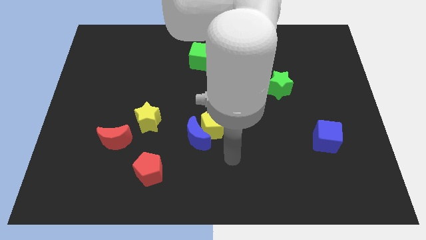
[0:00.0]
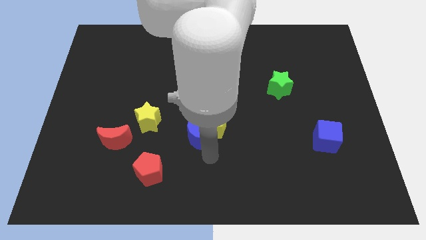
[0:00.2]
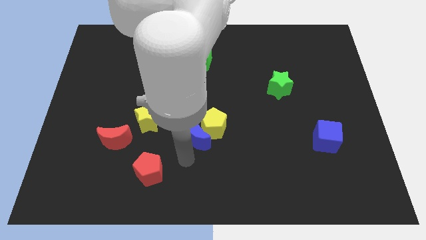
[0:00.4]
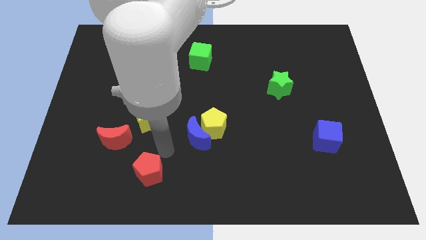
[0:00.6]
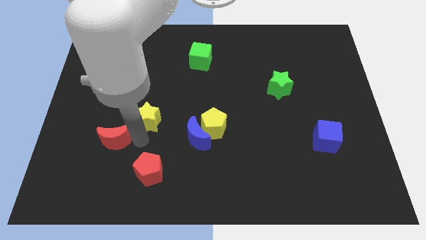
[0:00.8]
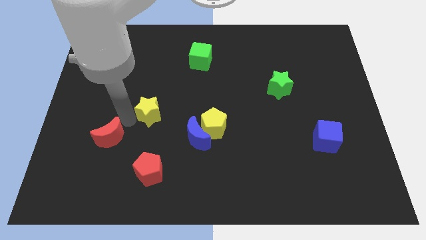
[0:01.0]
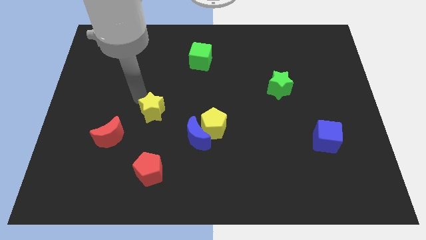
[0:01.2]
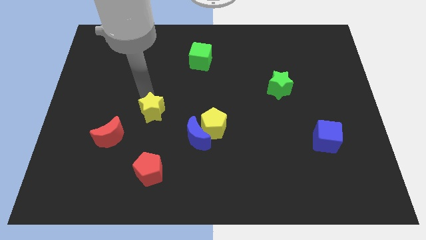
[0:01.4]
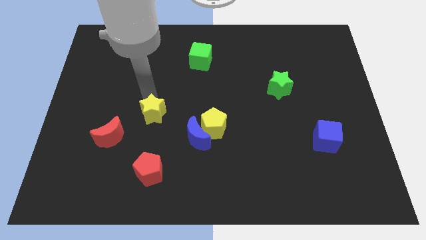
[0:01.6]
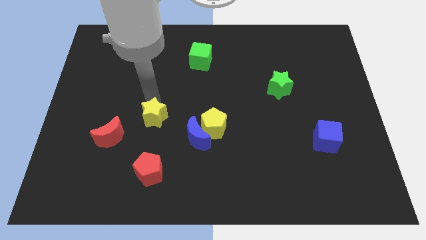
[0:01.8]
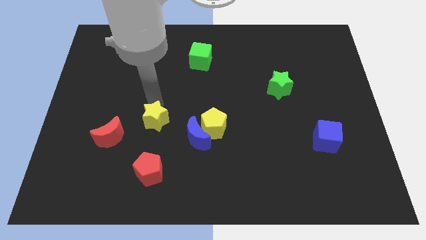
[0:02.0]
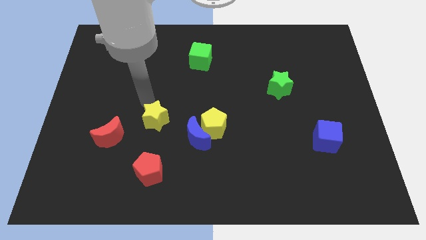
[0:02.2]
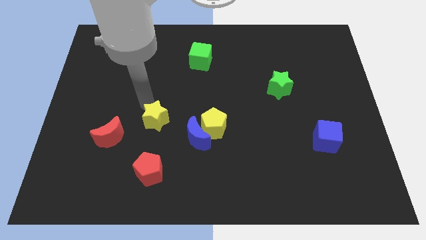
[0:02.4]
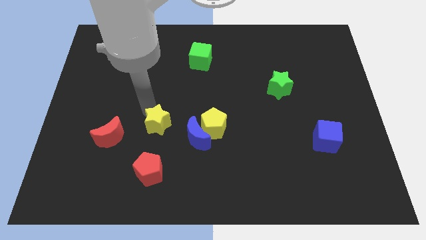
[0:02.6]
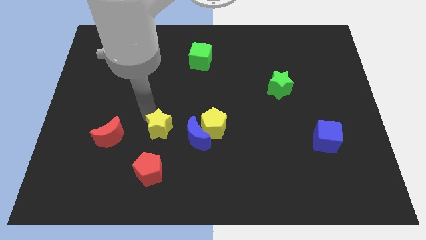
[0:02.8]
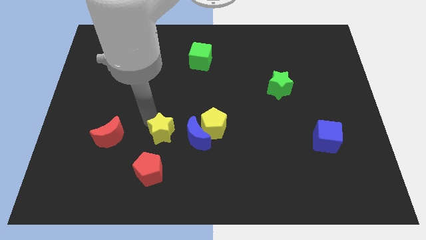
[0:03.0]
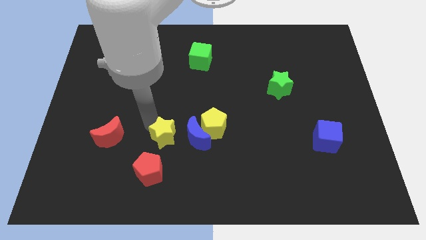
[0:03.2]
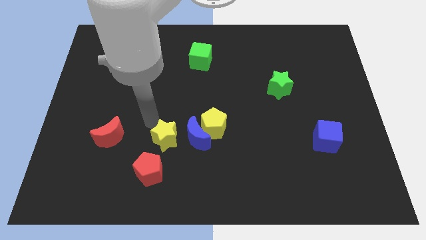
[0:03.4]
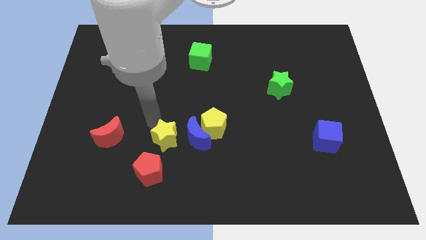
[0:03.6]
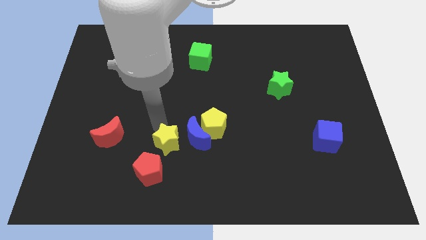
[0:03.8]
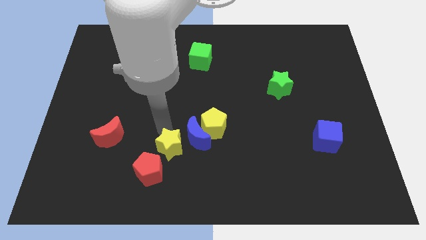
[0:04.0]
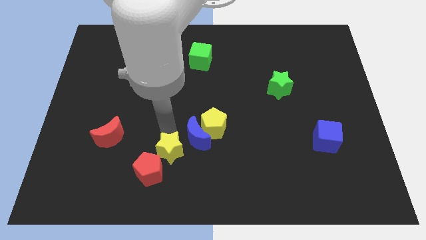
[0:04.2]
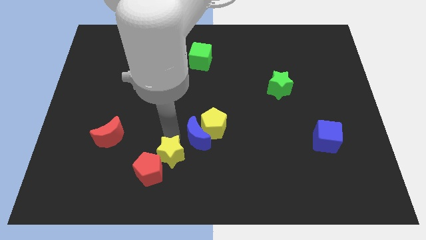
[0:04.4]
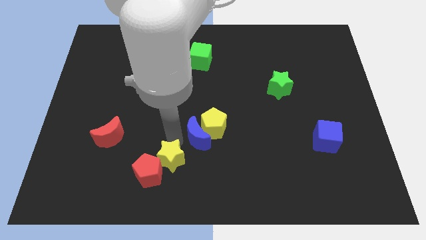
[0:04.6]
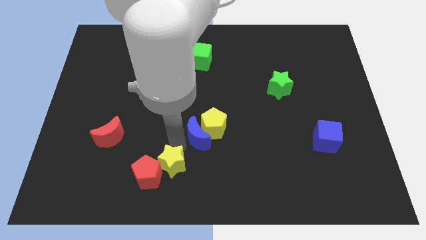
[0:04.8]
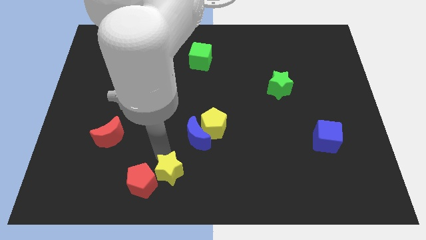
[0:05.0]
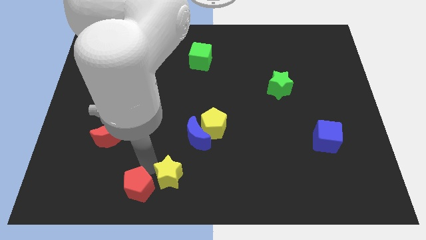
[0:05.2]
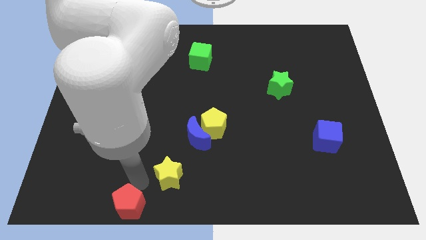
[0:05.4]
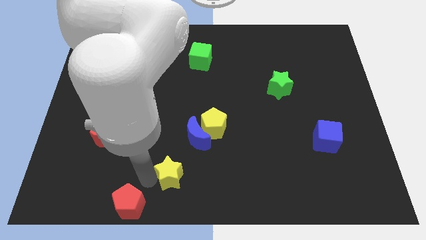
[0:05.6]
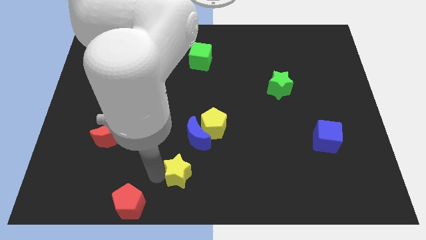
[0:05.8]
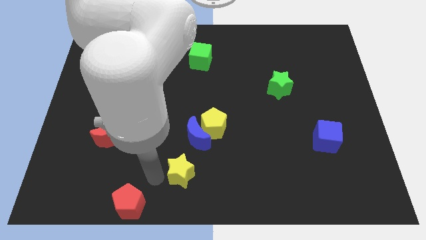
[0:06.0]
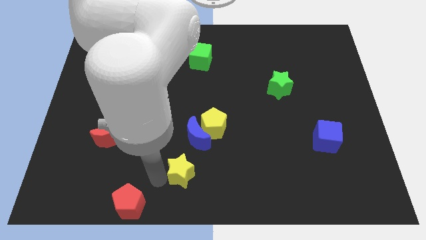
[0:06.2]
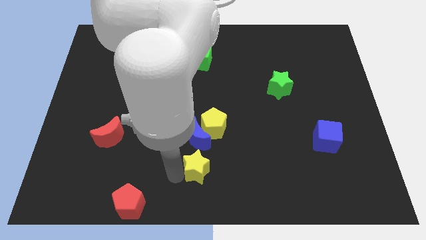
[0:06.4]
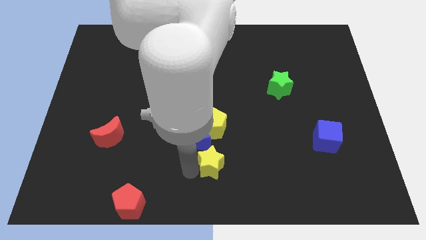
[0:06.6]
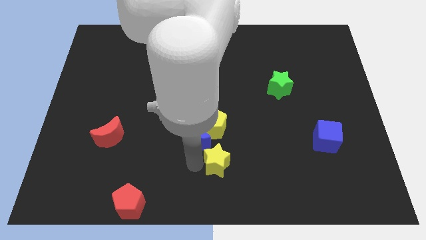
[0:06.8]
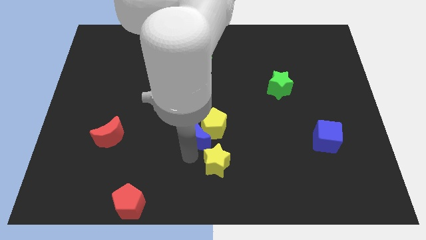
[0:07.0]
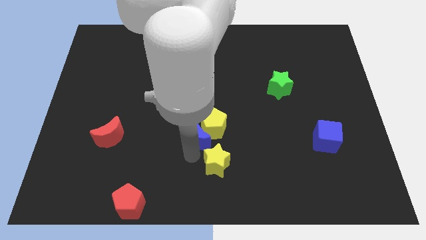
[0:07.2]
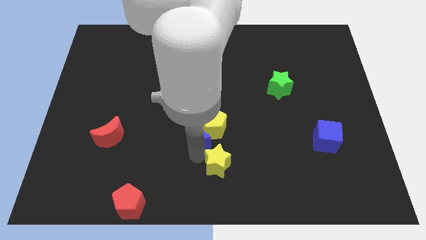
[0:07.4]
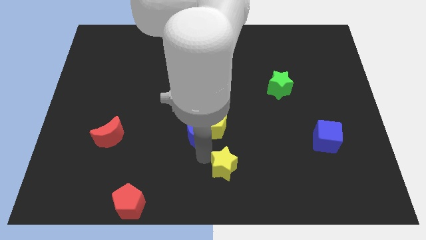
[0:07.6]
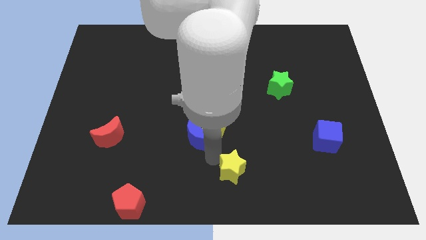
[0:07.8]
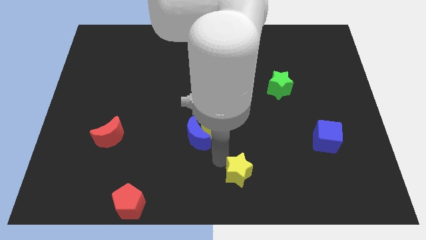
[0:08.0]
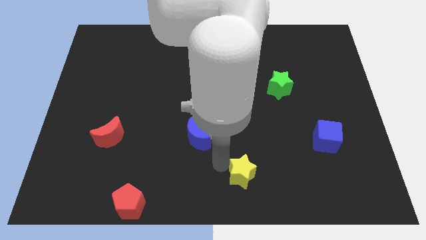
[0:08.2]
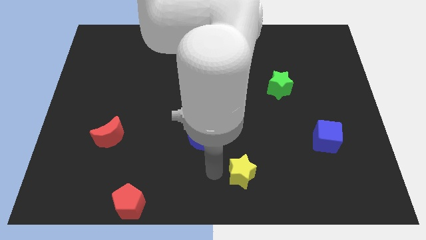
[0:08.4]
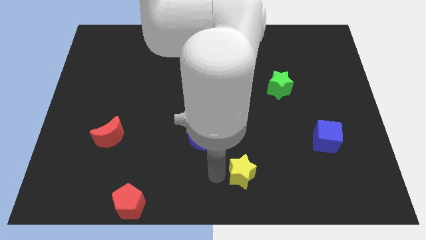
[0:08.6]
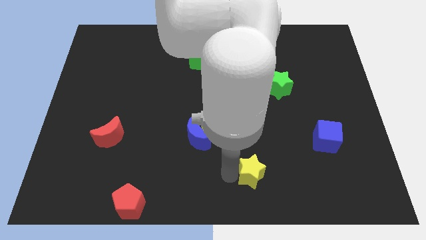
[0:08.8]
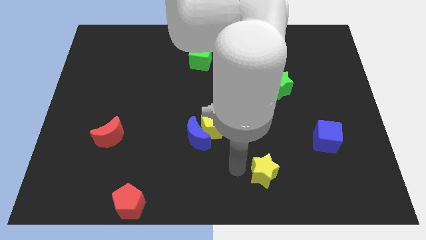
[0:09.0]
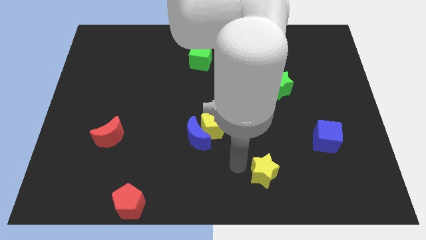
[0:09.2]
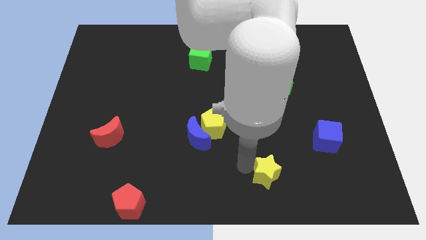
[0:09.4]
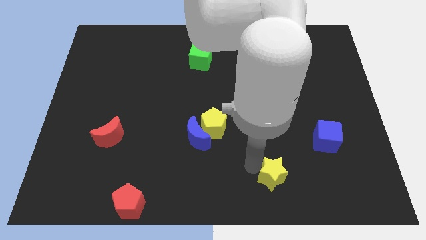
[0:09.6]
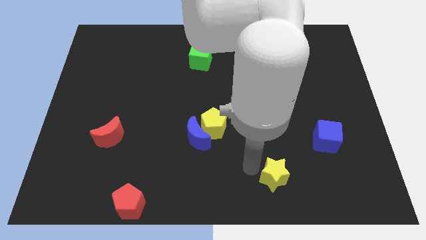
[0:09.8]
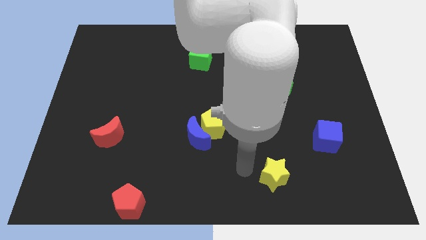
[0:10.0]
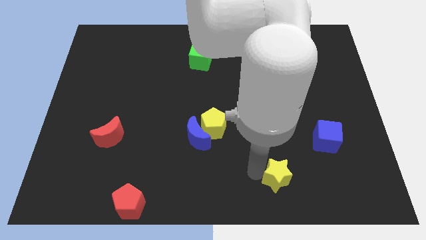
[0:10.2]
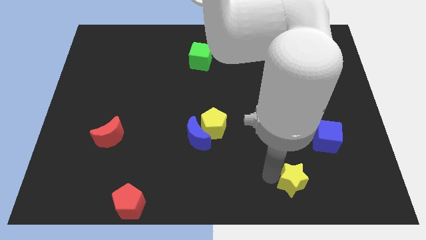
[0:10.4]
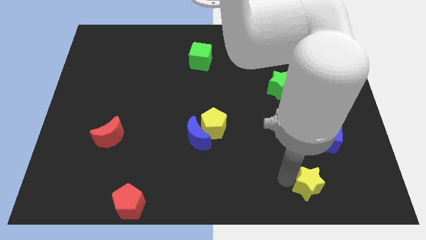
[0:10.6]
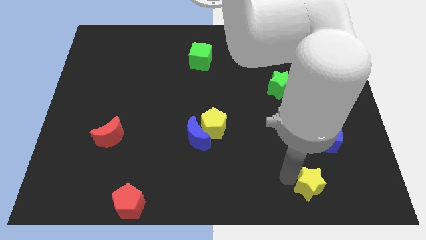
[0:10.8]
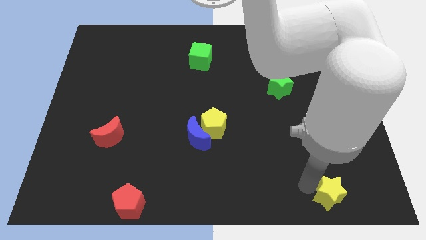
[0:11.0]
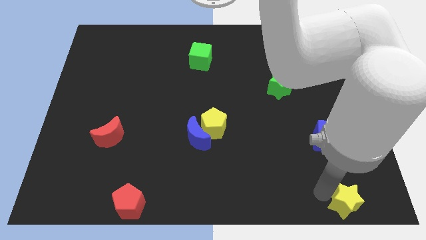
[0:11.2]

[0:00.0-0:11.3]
push the yellow star to the bottom right of the board
